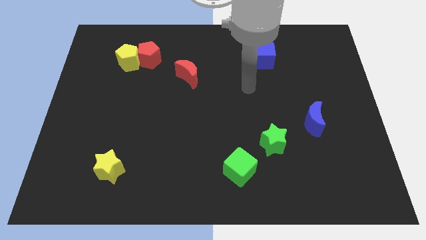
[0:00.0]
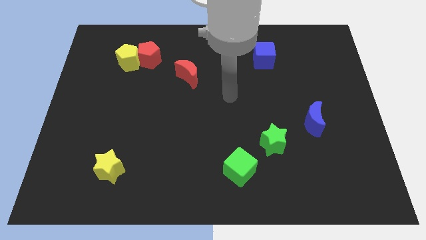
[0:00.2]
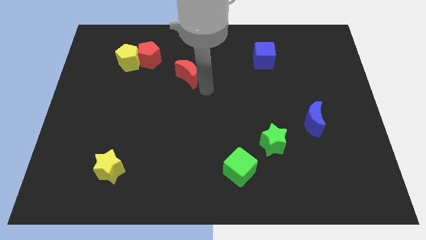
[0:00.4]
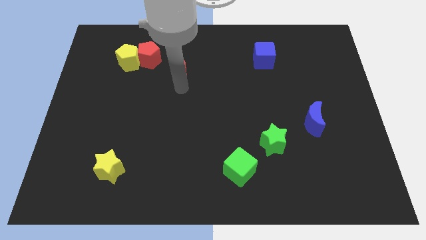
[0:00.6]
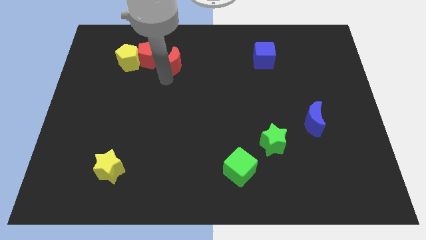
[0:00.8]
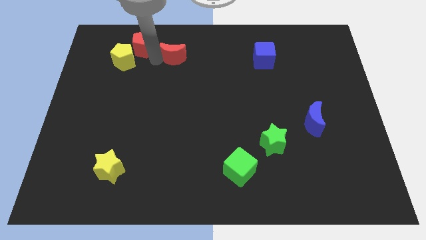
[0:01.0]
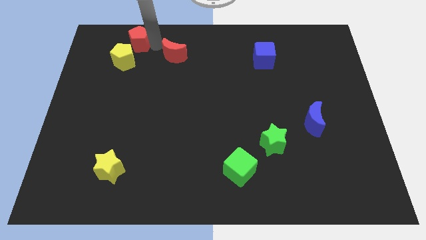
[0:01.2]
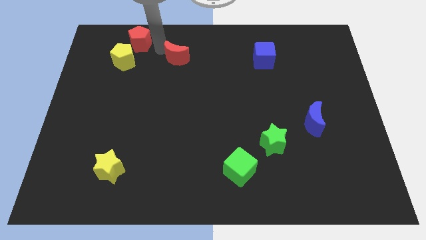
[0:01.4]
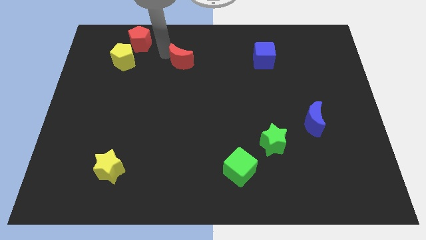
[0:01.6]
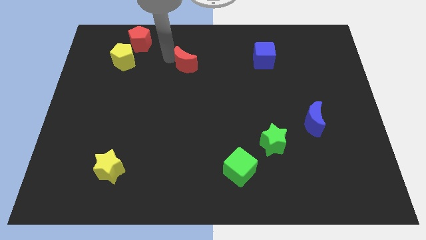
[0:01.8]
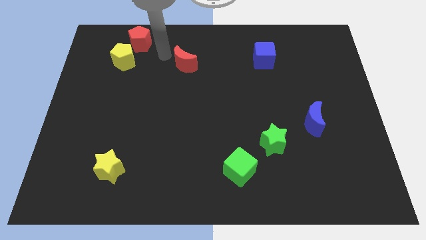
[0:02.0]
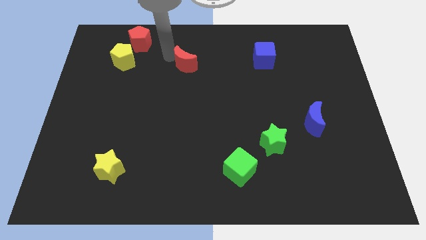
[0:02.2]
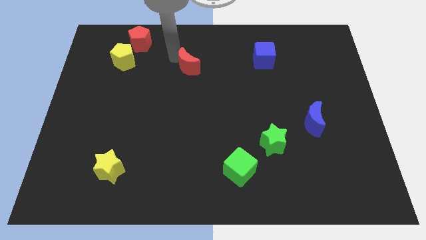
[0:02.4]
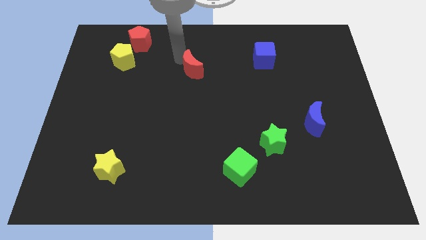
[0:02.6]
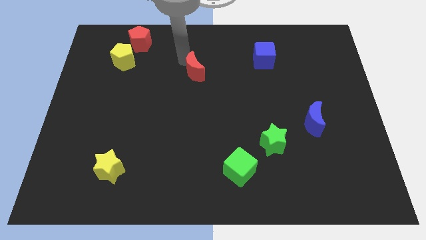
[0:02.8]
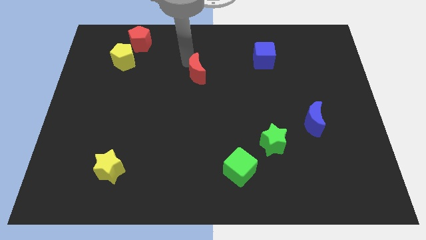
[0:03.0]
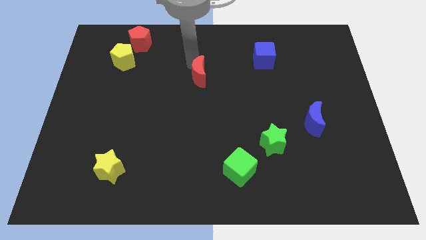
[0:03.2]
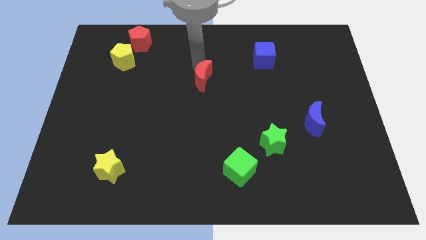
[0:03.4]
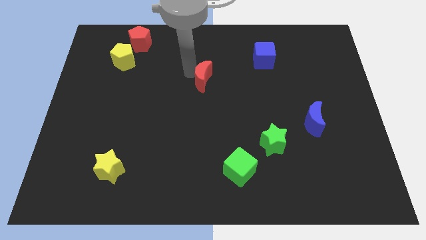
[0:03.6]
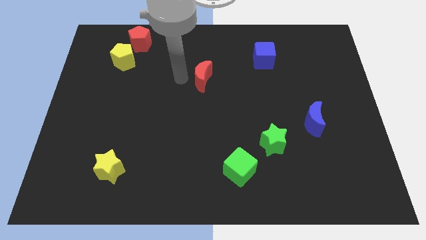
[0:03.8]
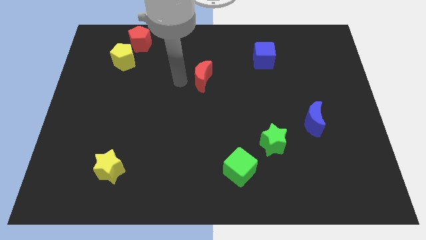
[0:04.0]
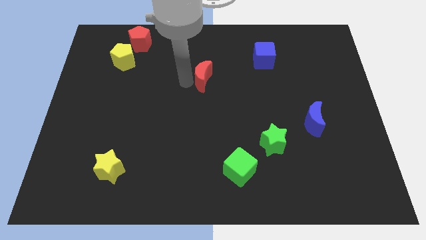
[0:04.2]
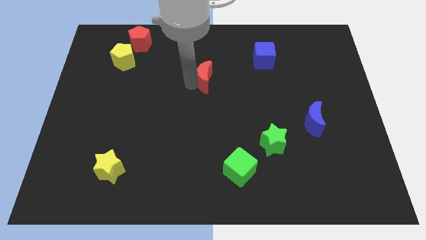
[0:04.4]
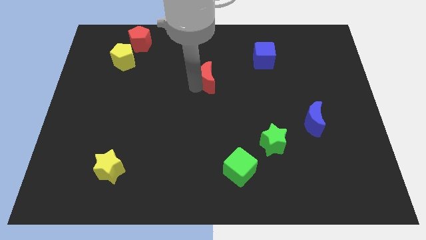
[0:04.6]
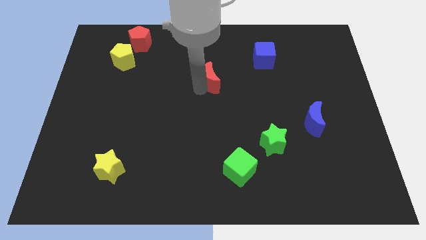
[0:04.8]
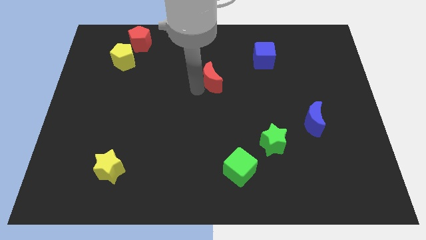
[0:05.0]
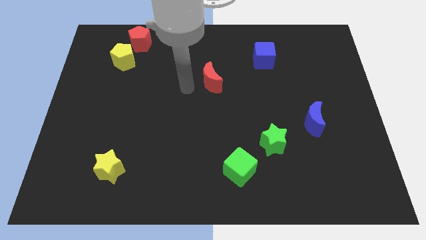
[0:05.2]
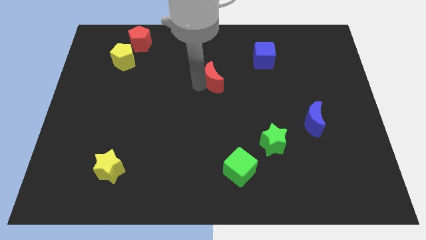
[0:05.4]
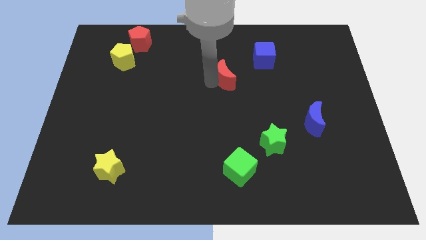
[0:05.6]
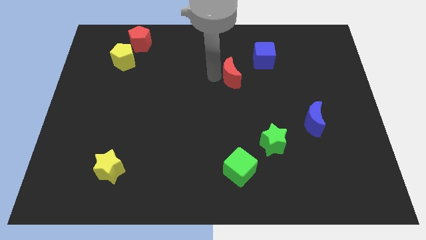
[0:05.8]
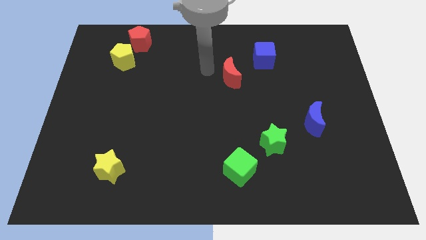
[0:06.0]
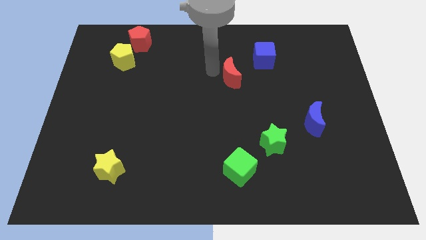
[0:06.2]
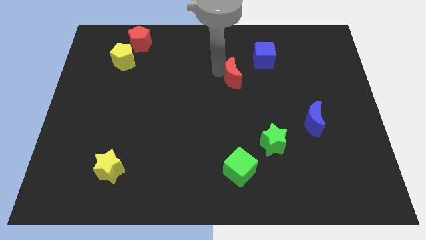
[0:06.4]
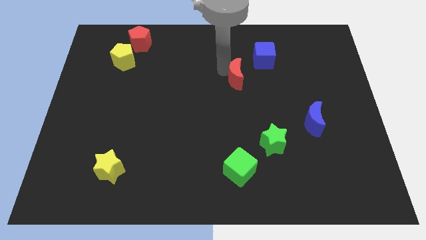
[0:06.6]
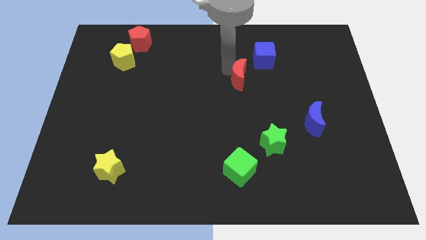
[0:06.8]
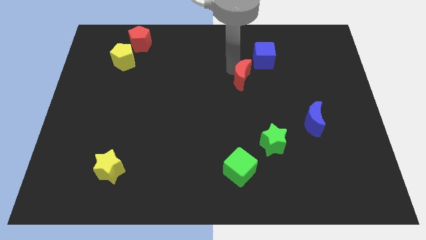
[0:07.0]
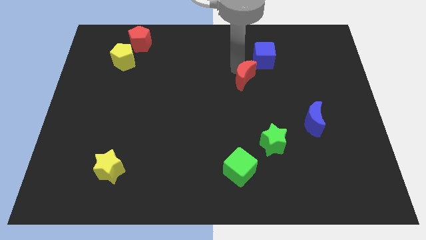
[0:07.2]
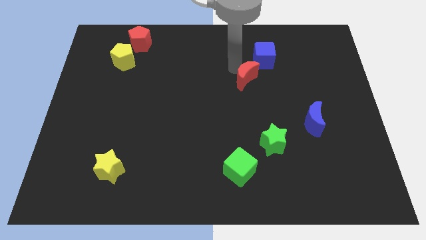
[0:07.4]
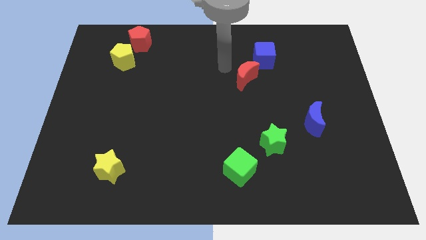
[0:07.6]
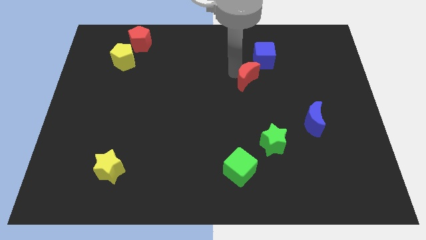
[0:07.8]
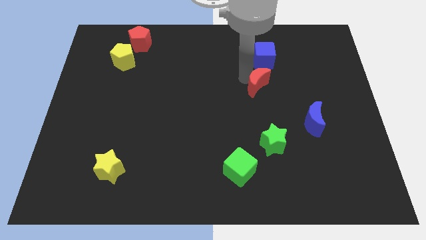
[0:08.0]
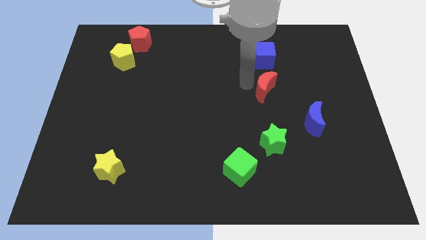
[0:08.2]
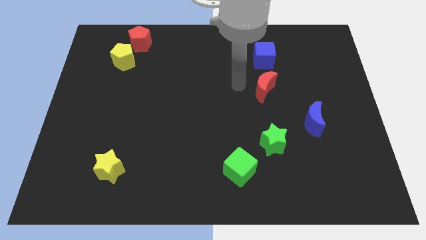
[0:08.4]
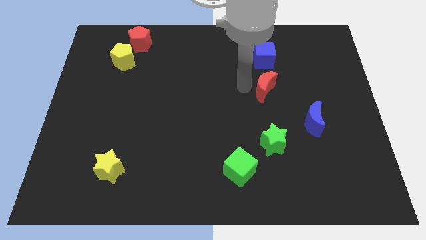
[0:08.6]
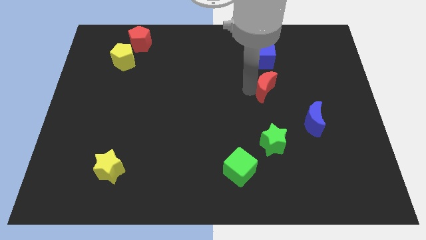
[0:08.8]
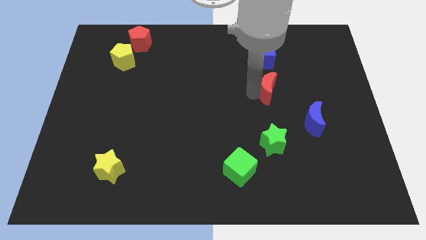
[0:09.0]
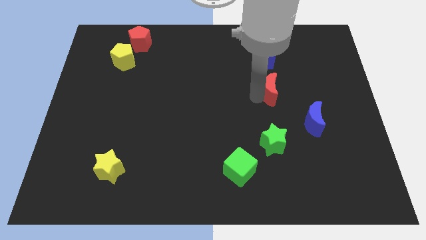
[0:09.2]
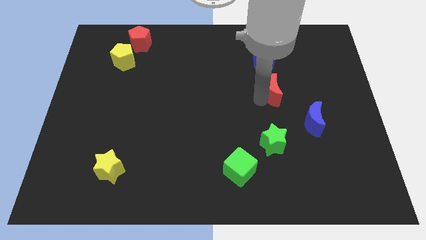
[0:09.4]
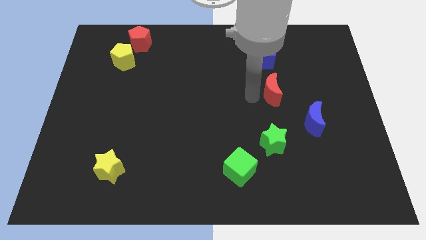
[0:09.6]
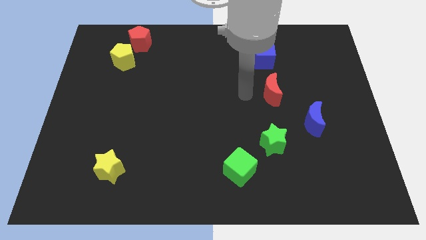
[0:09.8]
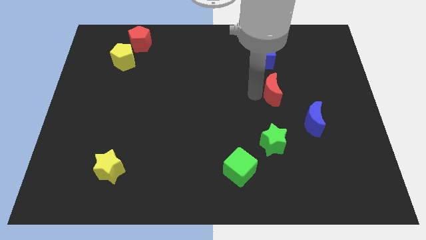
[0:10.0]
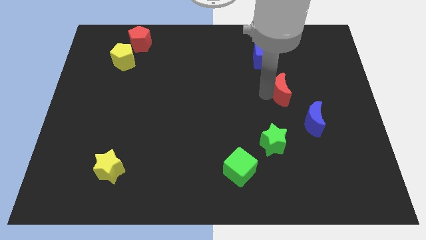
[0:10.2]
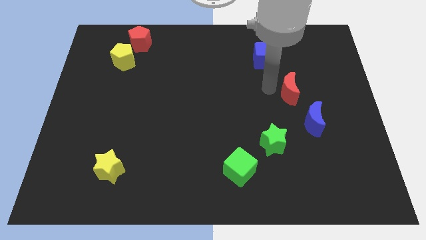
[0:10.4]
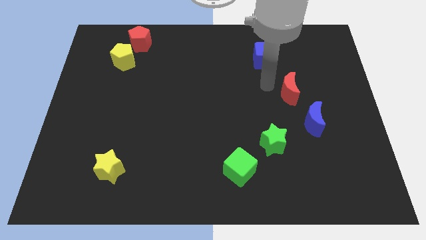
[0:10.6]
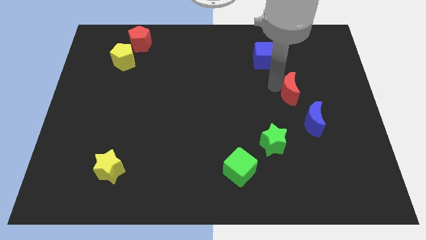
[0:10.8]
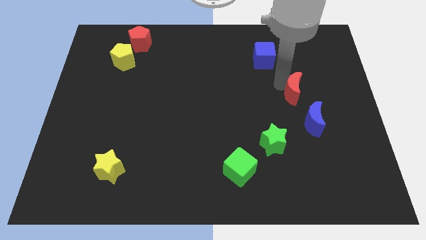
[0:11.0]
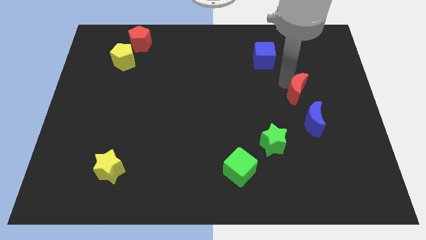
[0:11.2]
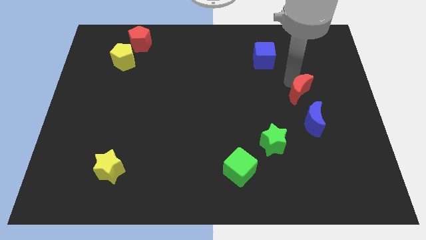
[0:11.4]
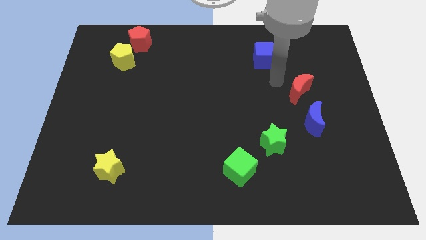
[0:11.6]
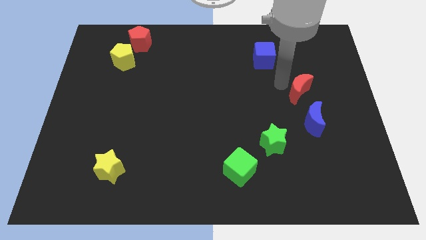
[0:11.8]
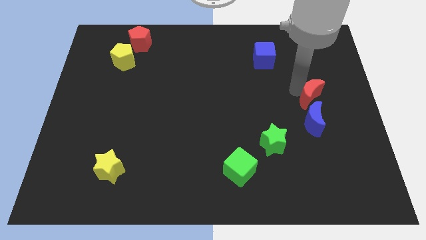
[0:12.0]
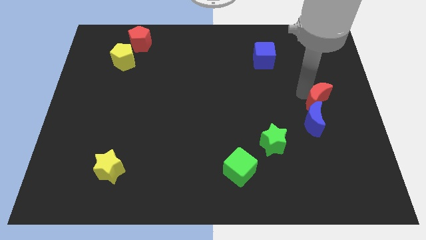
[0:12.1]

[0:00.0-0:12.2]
slide the red moon to the top right of the blue moon
